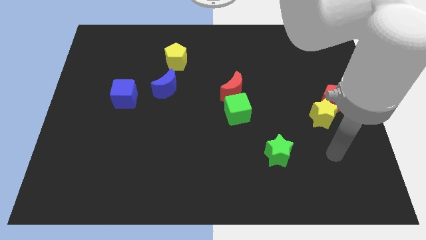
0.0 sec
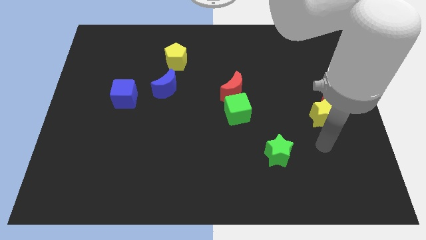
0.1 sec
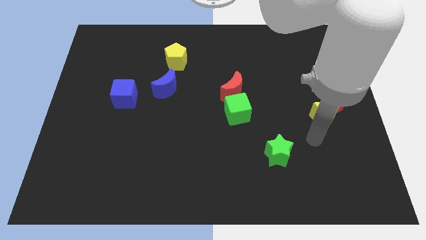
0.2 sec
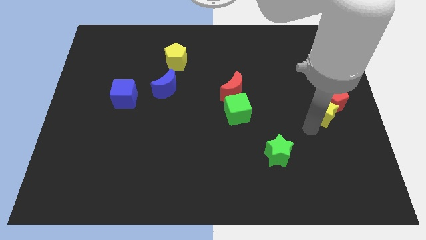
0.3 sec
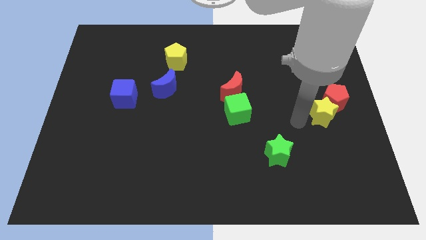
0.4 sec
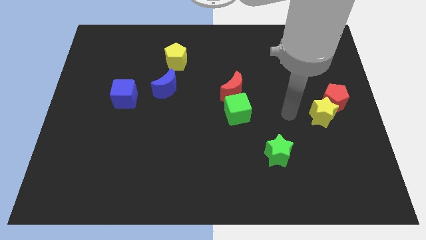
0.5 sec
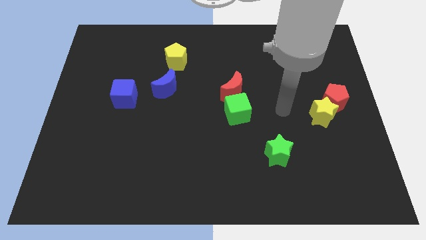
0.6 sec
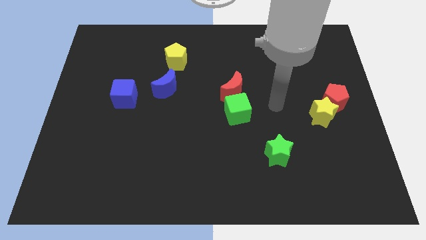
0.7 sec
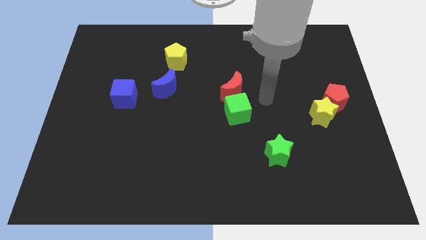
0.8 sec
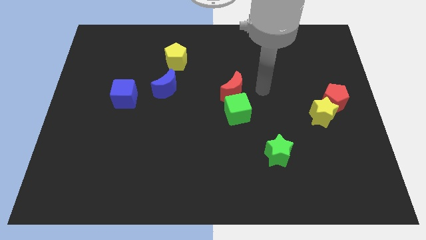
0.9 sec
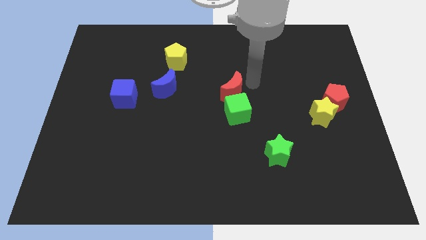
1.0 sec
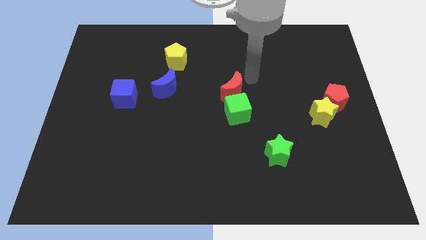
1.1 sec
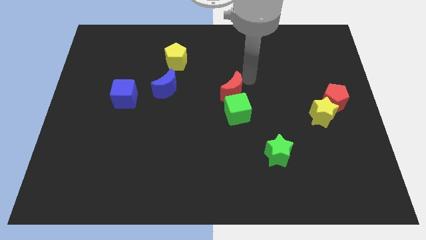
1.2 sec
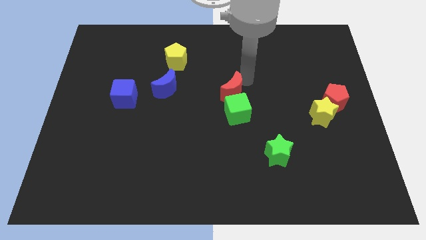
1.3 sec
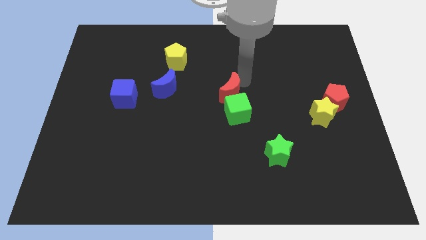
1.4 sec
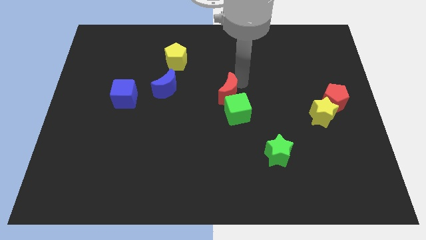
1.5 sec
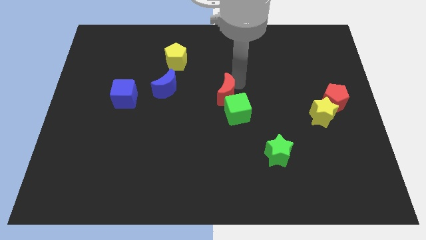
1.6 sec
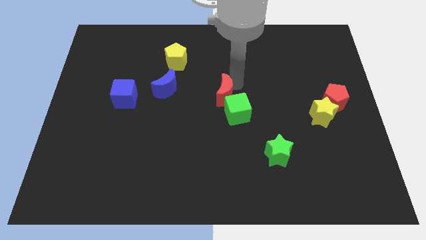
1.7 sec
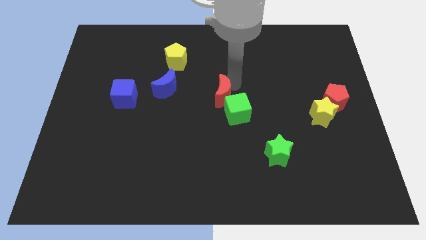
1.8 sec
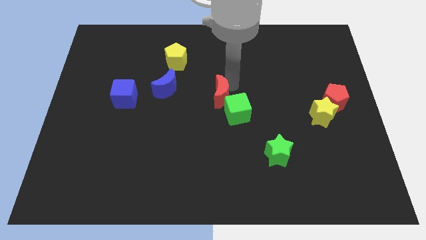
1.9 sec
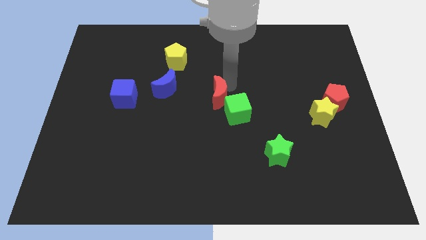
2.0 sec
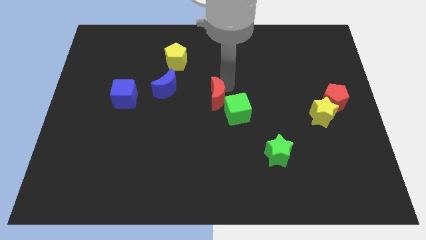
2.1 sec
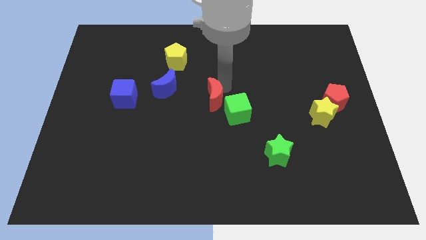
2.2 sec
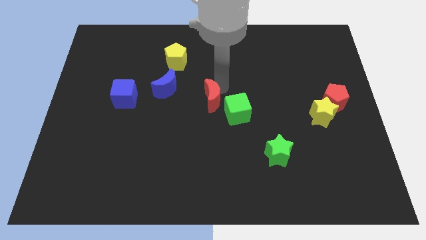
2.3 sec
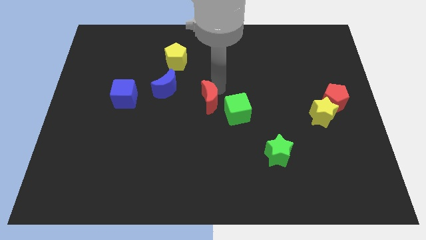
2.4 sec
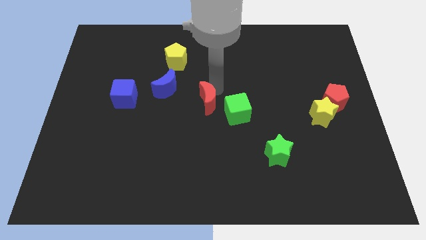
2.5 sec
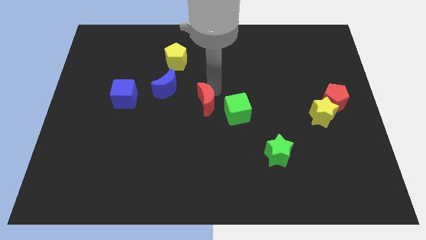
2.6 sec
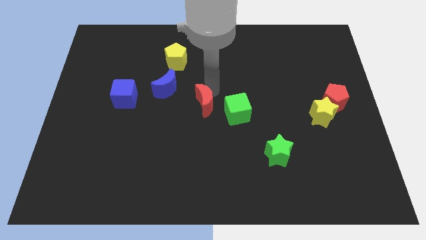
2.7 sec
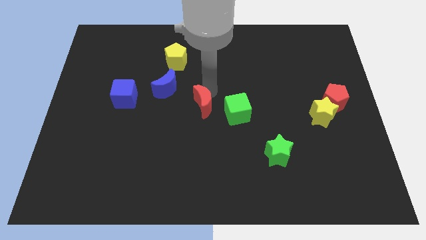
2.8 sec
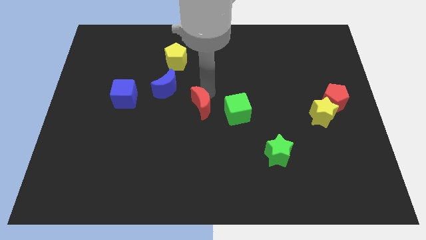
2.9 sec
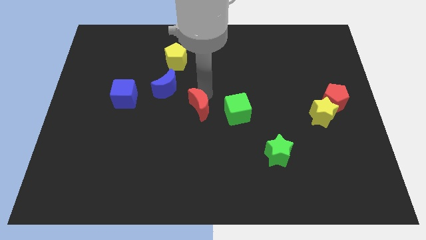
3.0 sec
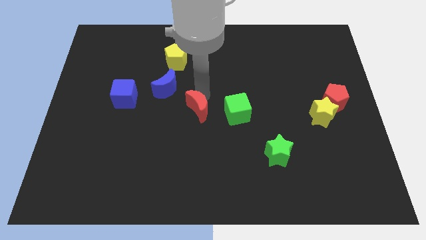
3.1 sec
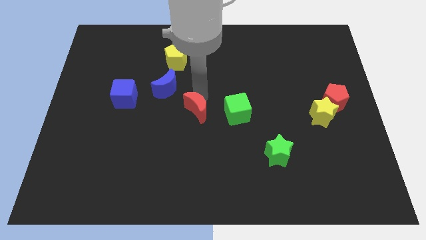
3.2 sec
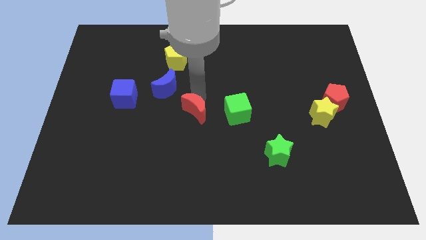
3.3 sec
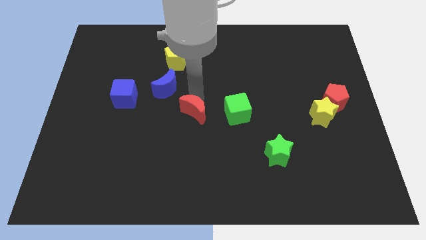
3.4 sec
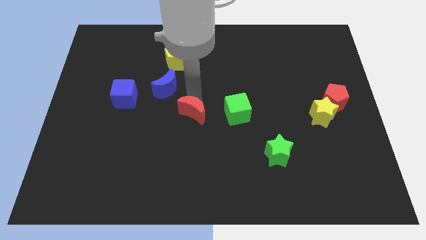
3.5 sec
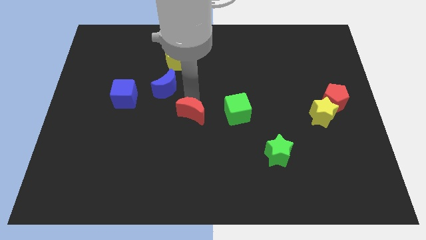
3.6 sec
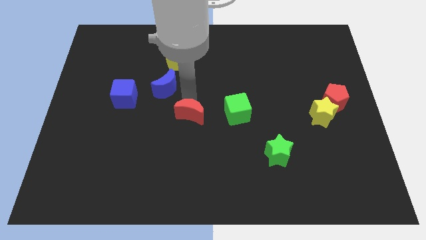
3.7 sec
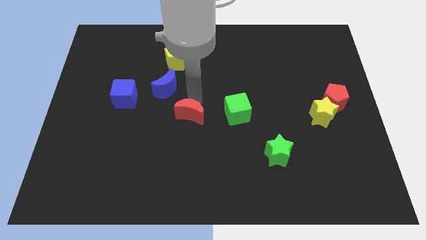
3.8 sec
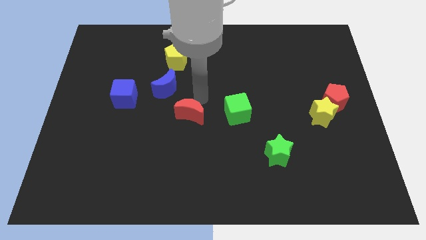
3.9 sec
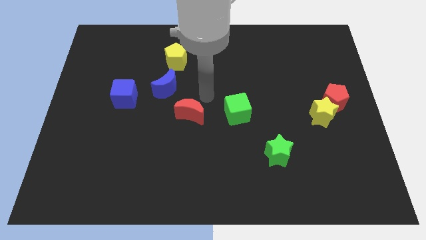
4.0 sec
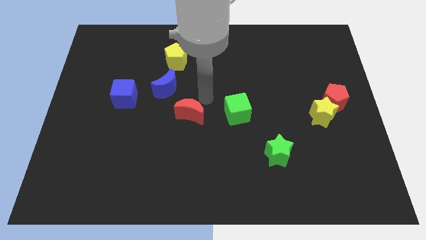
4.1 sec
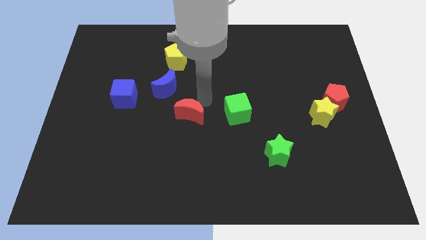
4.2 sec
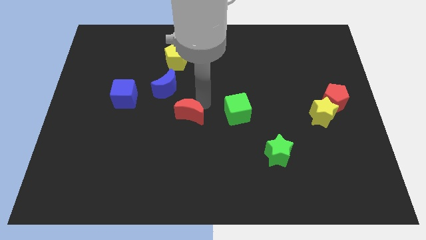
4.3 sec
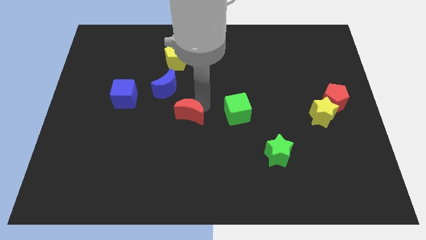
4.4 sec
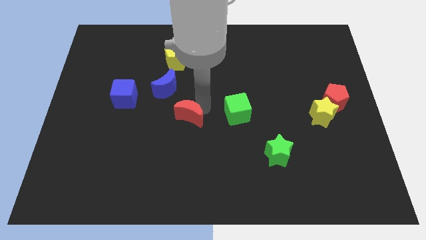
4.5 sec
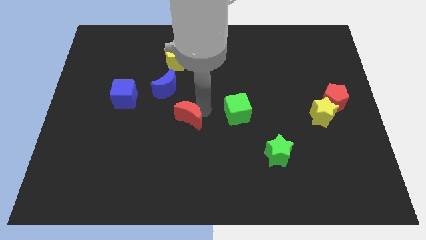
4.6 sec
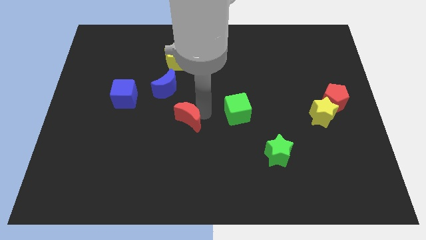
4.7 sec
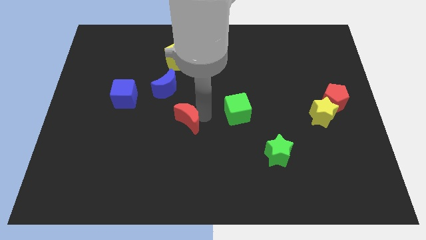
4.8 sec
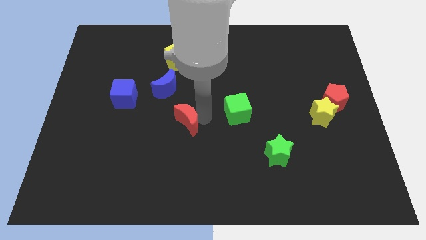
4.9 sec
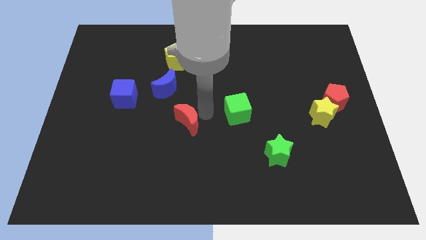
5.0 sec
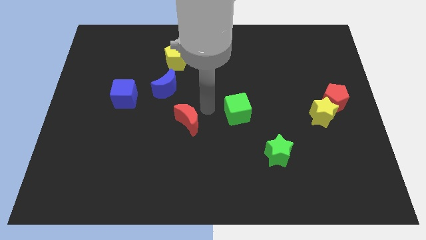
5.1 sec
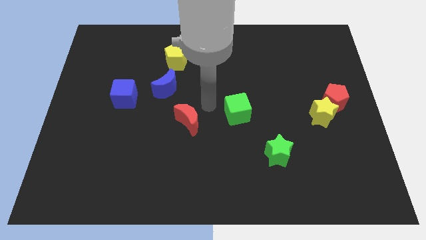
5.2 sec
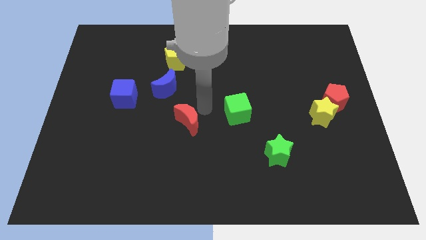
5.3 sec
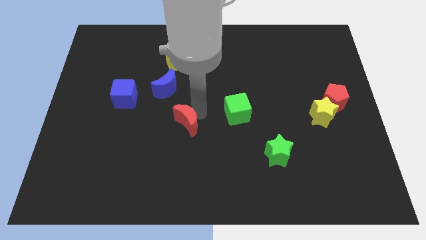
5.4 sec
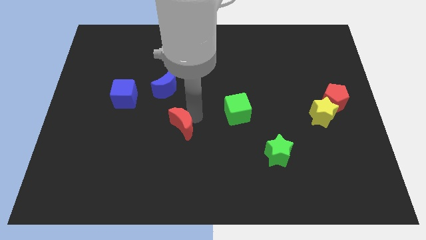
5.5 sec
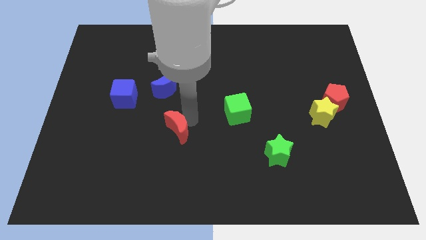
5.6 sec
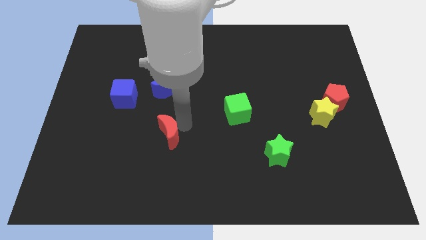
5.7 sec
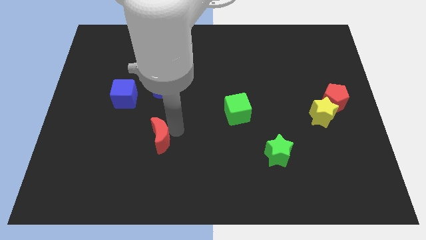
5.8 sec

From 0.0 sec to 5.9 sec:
slide the red moon down and to the left diagonally

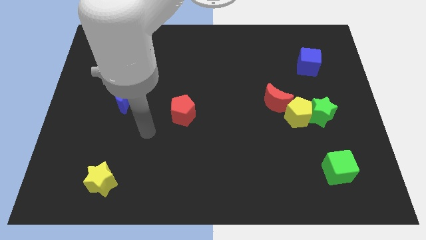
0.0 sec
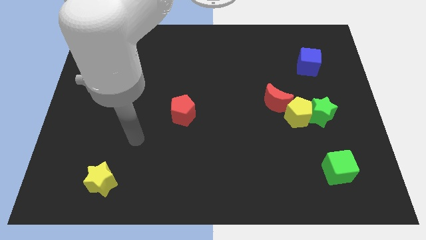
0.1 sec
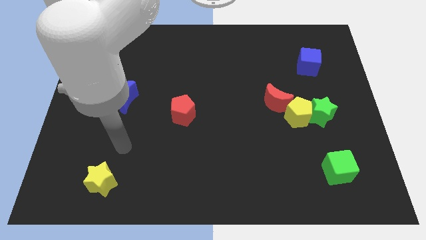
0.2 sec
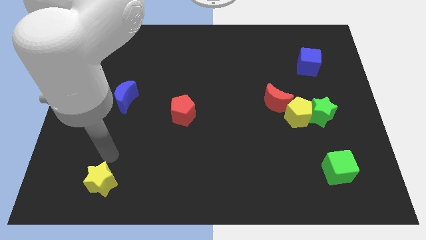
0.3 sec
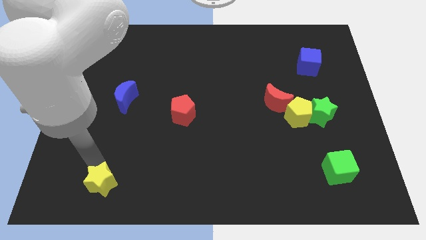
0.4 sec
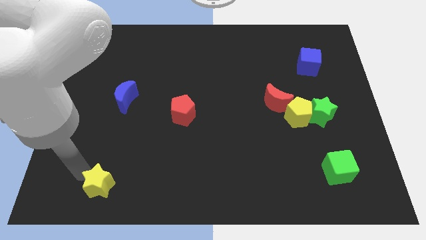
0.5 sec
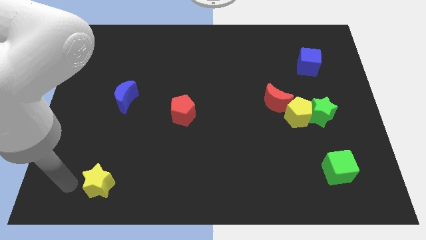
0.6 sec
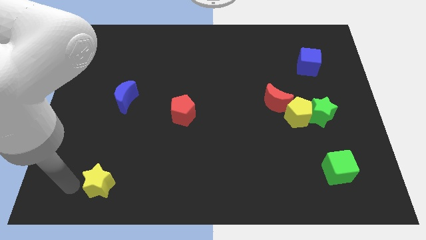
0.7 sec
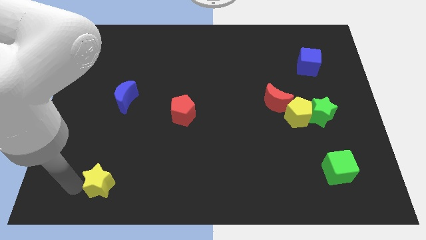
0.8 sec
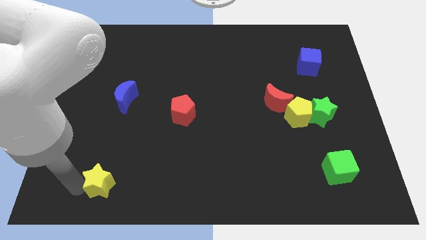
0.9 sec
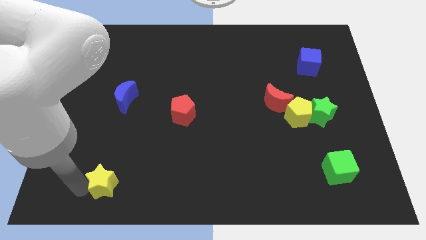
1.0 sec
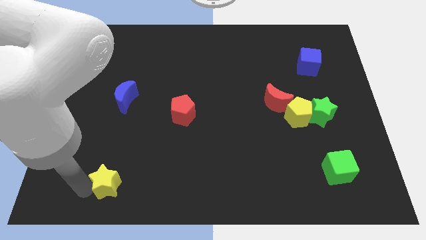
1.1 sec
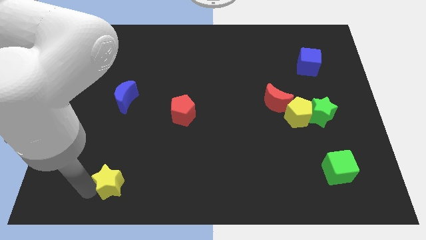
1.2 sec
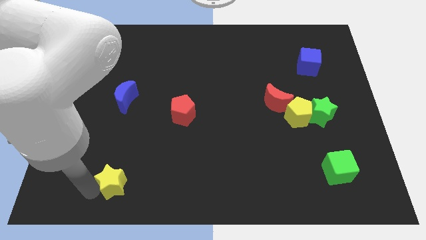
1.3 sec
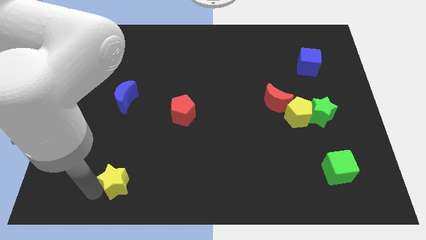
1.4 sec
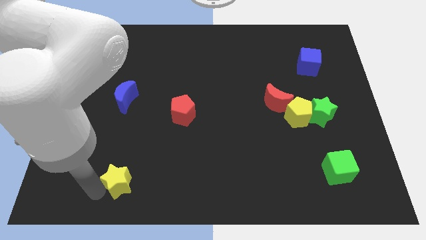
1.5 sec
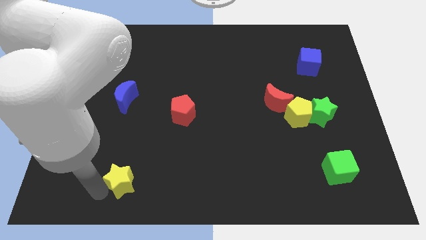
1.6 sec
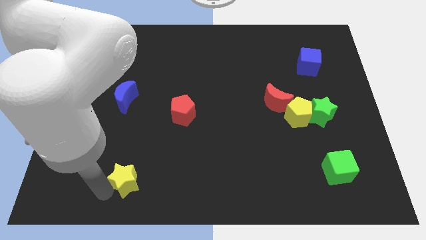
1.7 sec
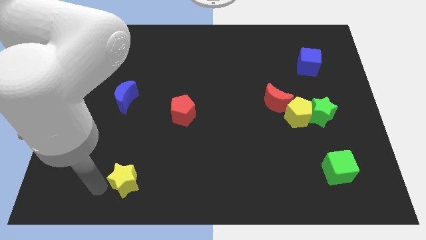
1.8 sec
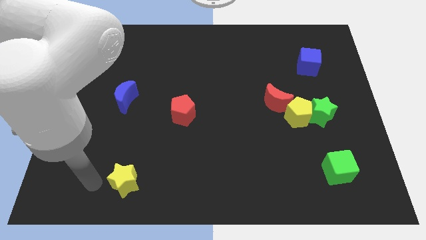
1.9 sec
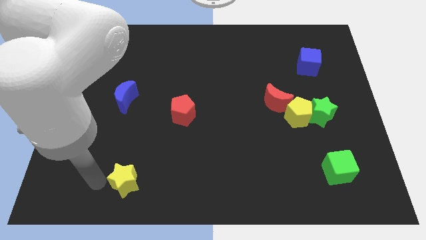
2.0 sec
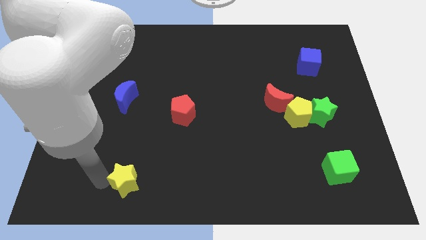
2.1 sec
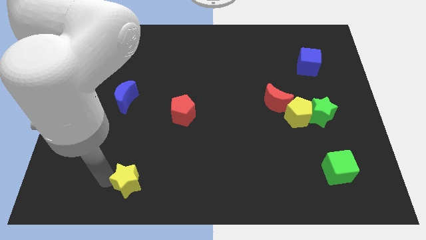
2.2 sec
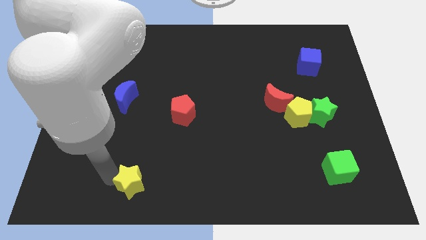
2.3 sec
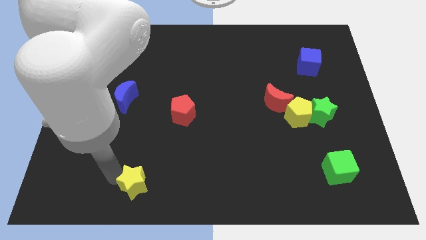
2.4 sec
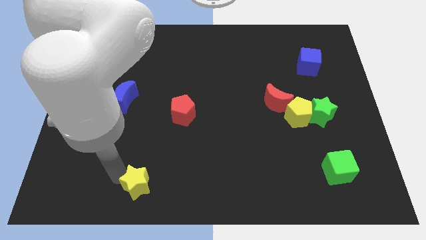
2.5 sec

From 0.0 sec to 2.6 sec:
move the yellow star a little to the right

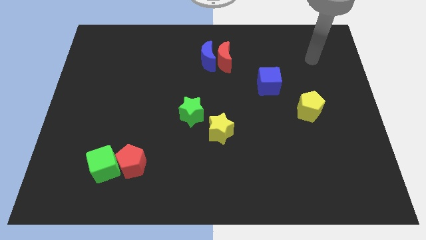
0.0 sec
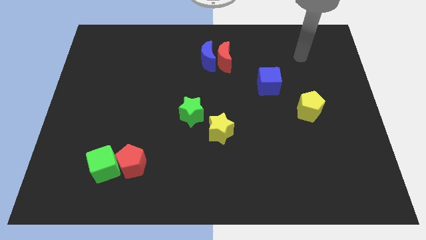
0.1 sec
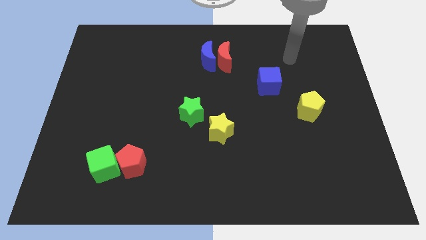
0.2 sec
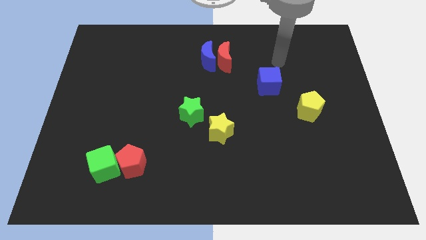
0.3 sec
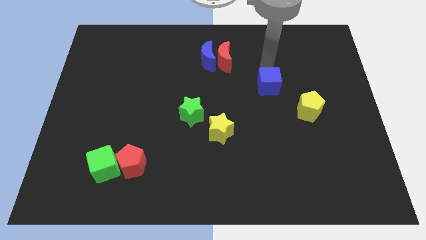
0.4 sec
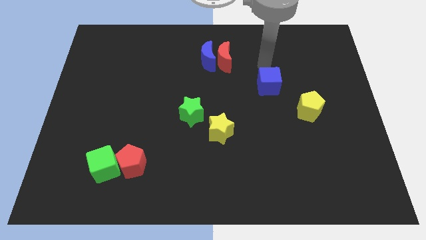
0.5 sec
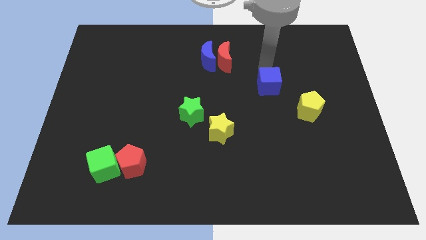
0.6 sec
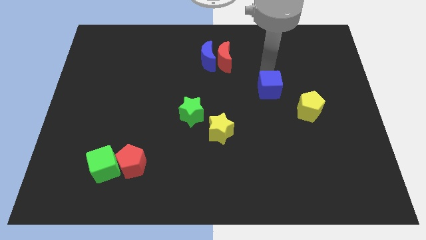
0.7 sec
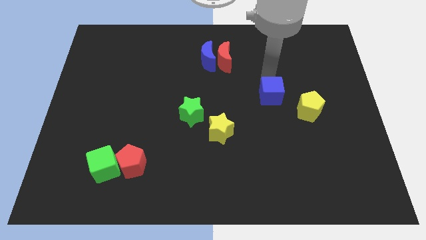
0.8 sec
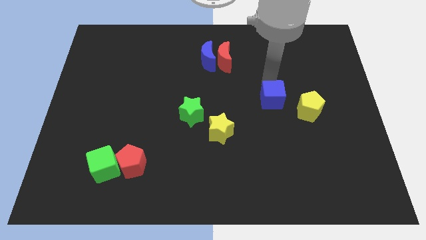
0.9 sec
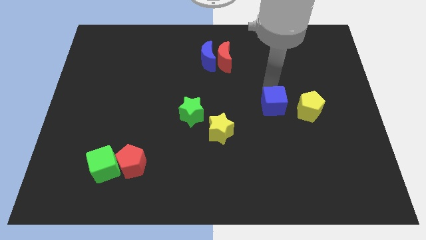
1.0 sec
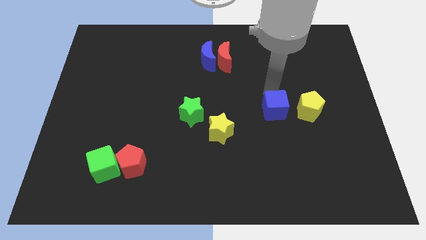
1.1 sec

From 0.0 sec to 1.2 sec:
slide the blue cube a little bit downwards
